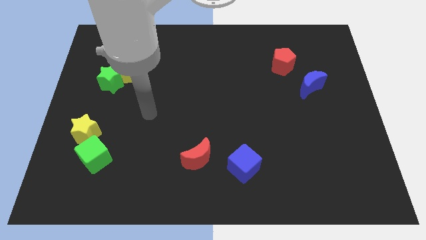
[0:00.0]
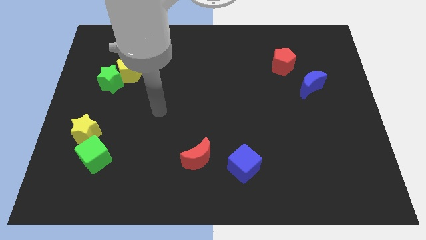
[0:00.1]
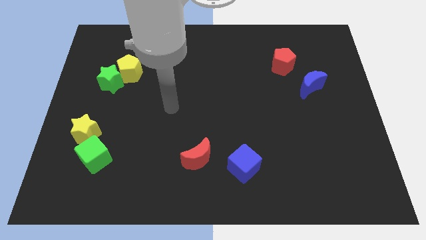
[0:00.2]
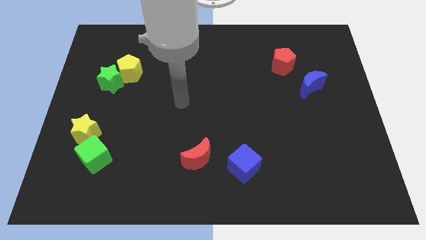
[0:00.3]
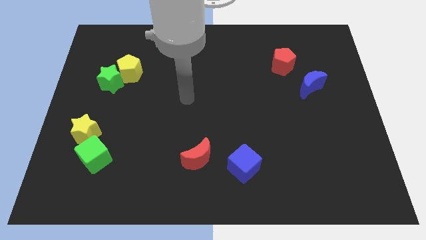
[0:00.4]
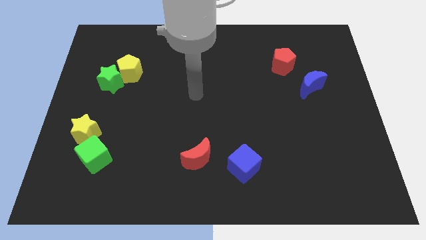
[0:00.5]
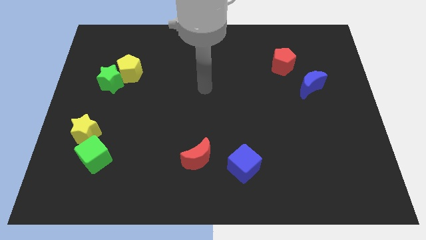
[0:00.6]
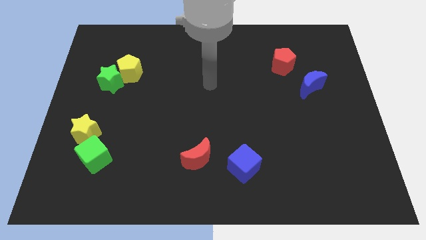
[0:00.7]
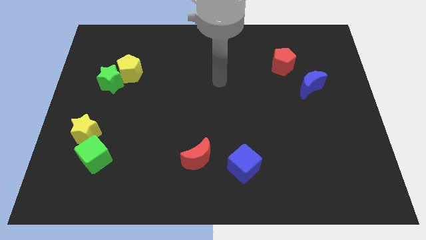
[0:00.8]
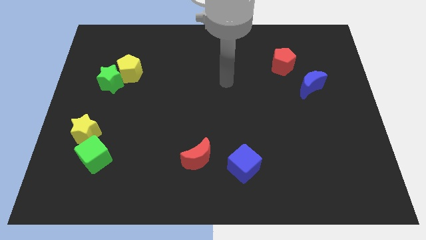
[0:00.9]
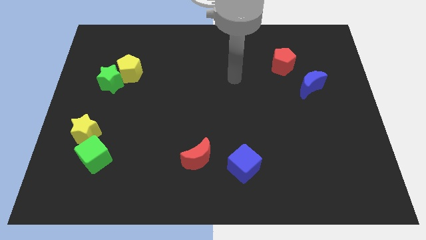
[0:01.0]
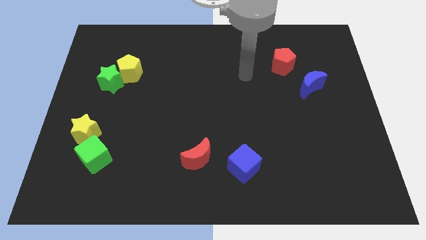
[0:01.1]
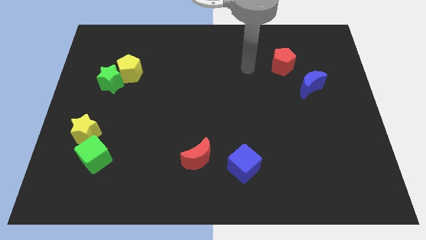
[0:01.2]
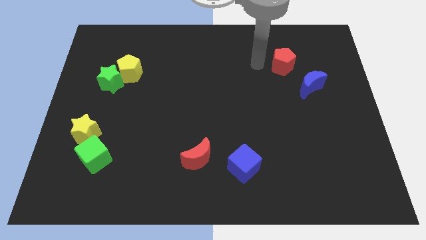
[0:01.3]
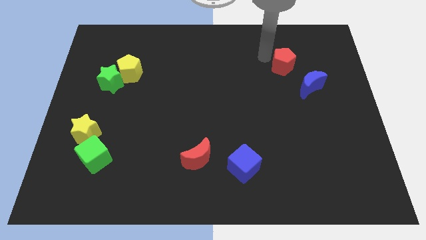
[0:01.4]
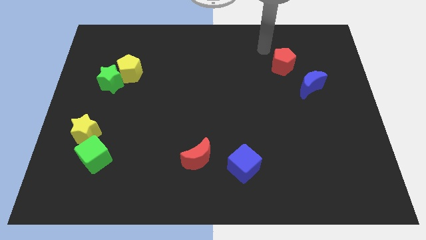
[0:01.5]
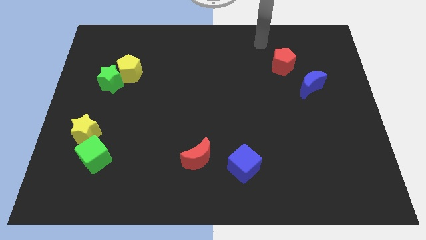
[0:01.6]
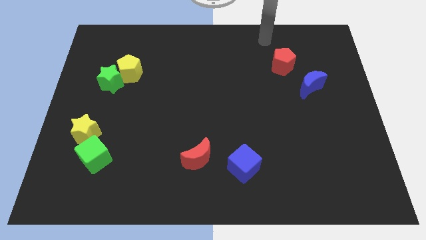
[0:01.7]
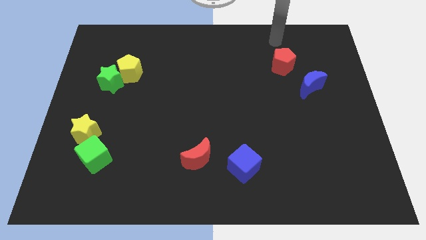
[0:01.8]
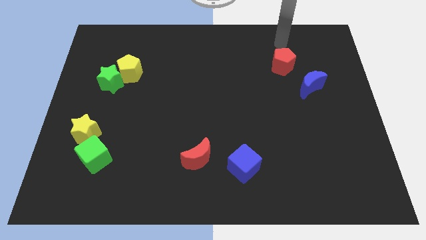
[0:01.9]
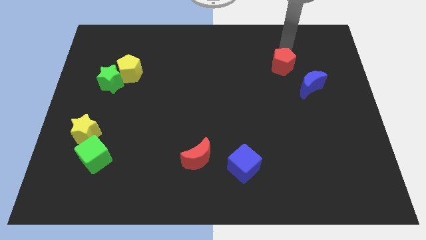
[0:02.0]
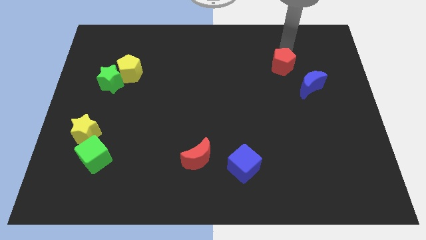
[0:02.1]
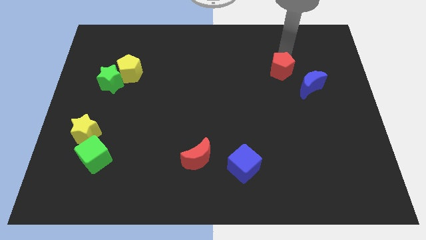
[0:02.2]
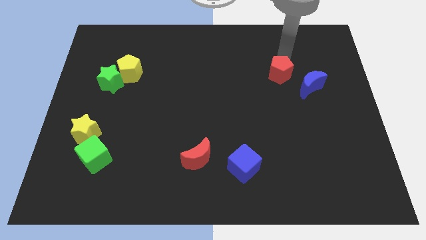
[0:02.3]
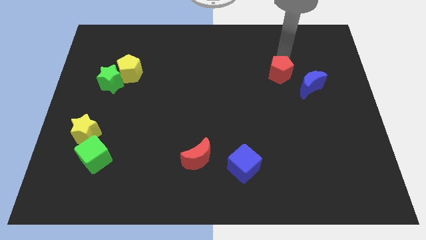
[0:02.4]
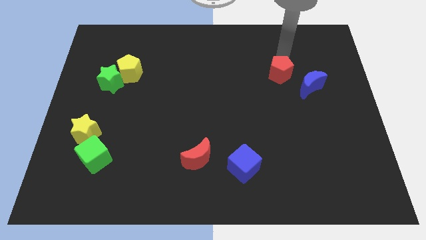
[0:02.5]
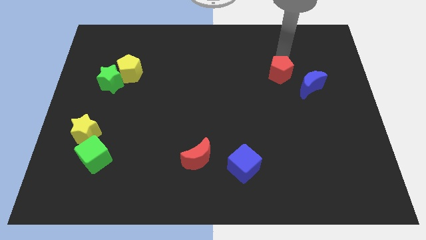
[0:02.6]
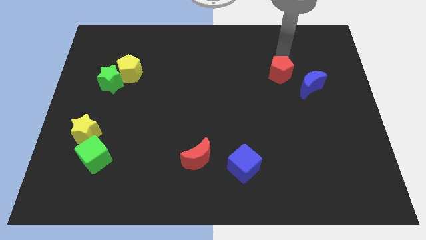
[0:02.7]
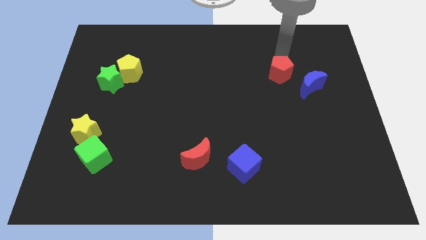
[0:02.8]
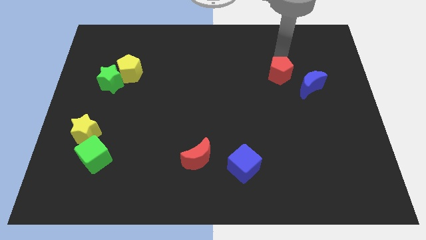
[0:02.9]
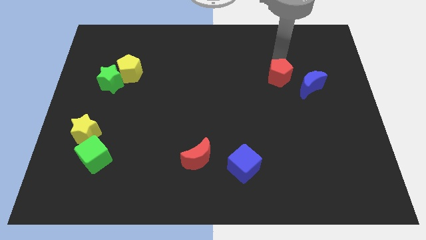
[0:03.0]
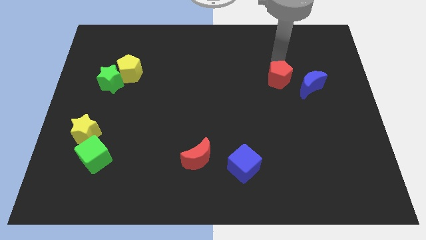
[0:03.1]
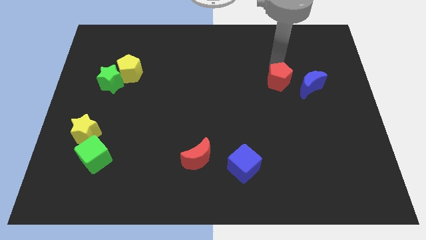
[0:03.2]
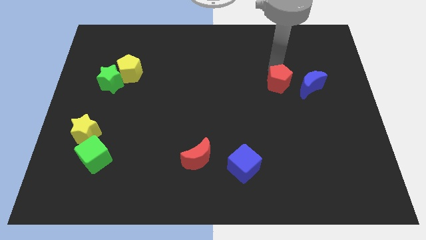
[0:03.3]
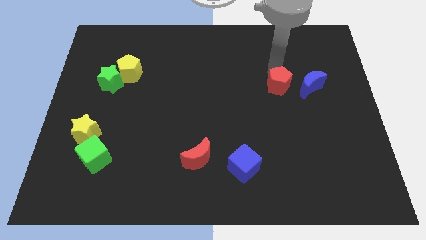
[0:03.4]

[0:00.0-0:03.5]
push the red pentagon down slightly

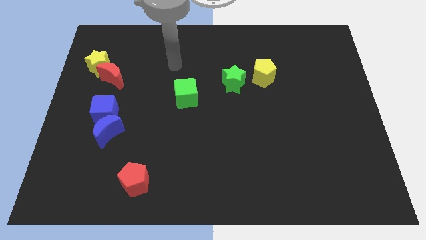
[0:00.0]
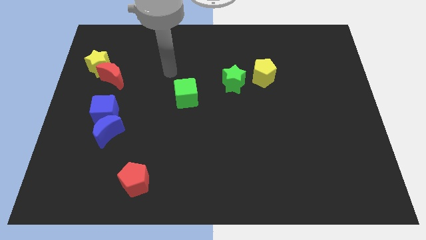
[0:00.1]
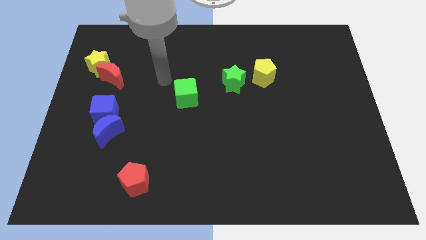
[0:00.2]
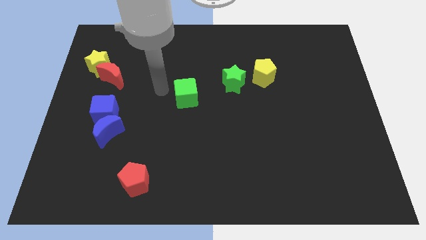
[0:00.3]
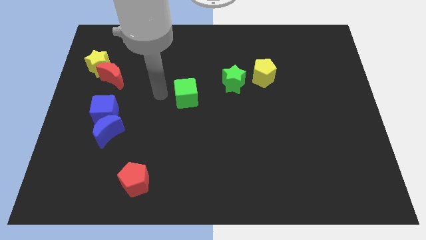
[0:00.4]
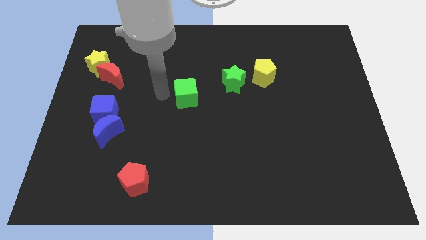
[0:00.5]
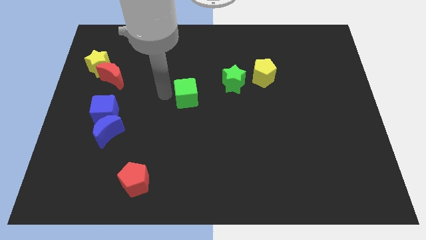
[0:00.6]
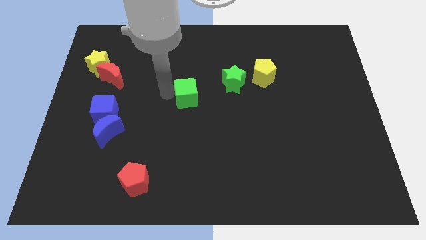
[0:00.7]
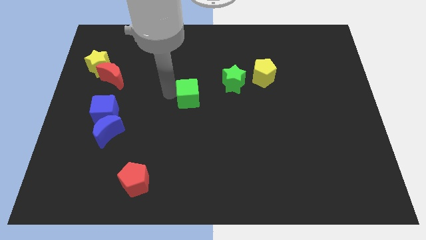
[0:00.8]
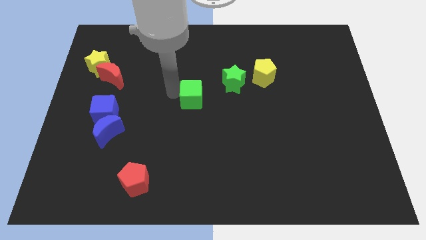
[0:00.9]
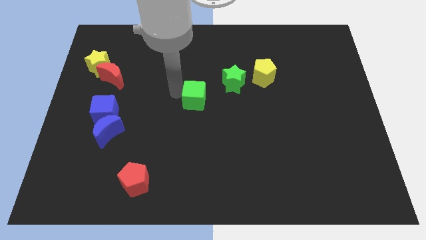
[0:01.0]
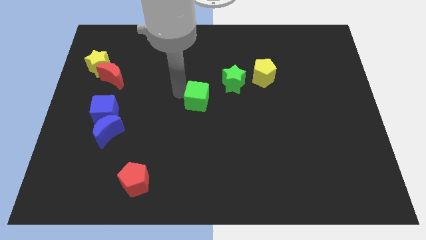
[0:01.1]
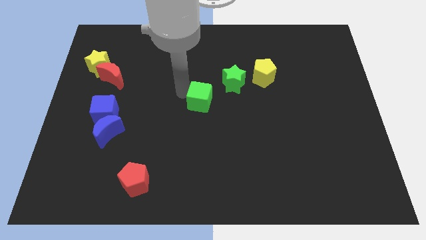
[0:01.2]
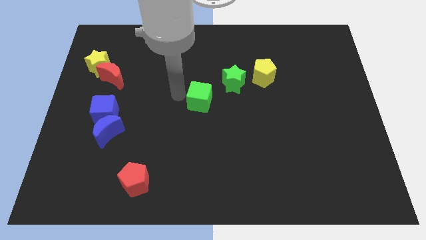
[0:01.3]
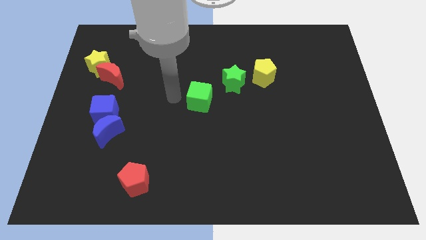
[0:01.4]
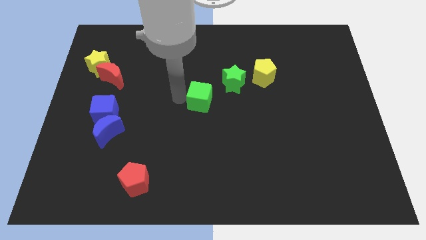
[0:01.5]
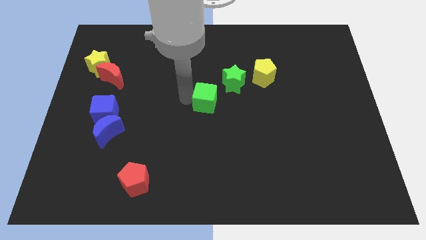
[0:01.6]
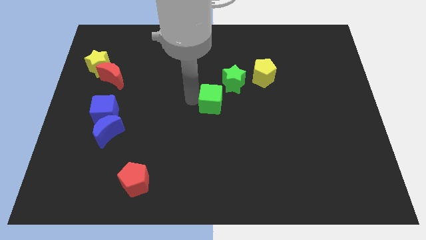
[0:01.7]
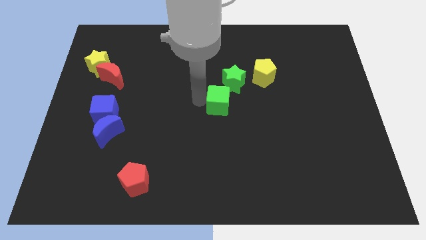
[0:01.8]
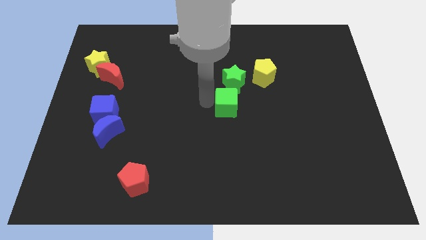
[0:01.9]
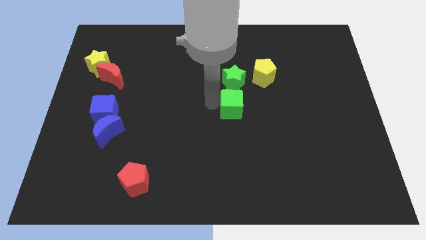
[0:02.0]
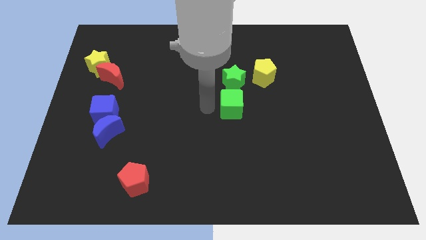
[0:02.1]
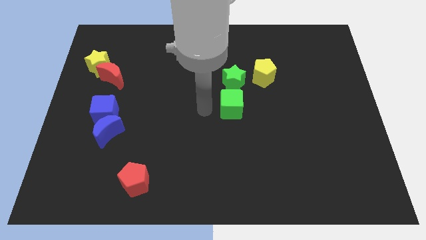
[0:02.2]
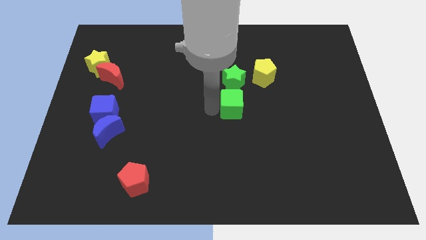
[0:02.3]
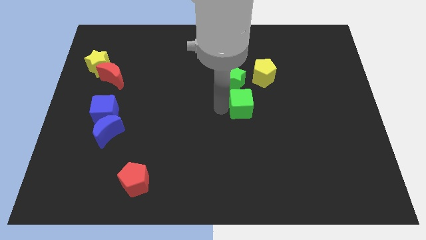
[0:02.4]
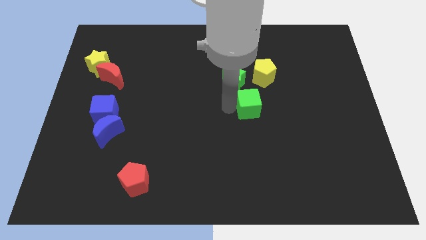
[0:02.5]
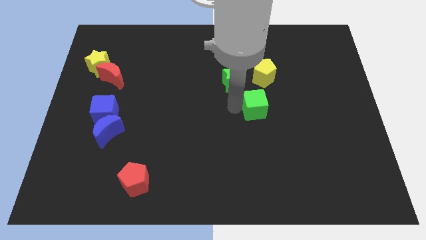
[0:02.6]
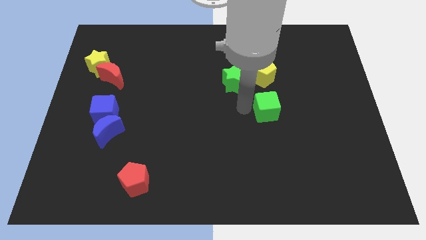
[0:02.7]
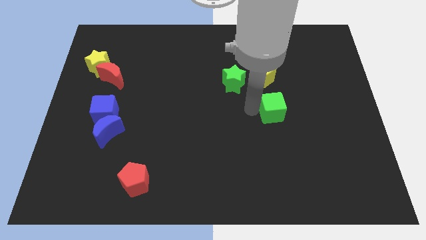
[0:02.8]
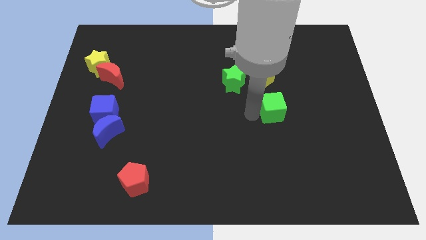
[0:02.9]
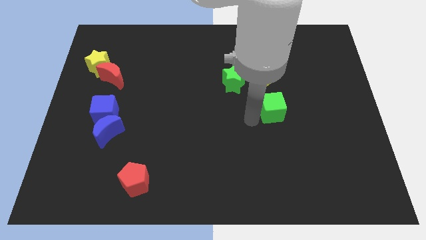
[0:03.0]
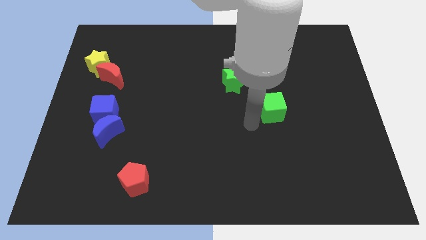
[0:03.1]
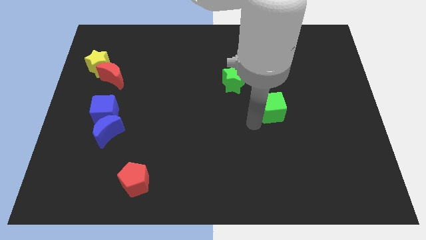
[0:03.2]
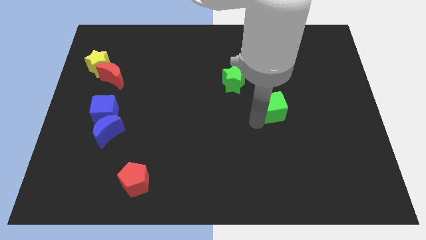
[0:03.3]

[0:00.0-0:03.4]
slide the green cube right

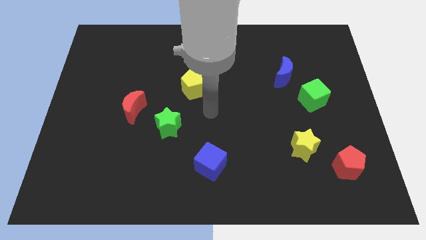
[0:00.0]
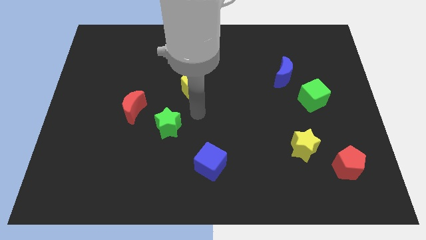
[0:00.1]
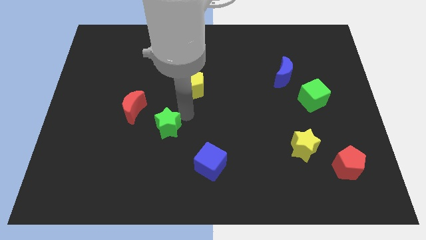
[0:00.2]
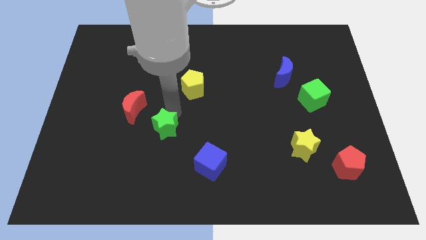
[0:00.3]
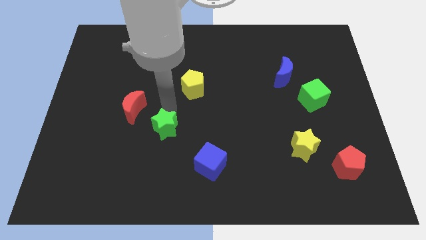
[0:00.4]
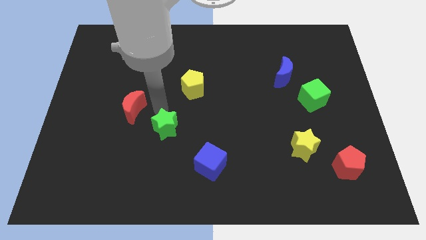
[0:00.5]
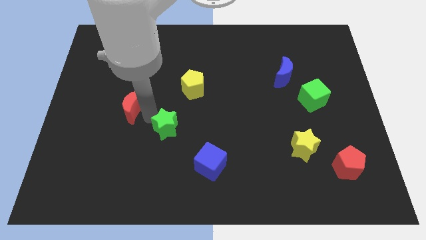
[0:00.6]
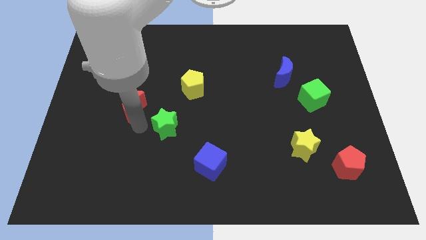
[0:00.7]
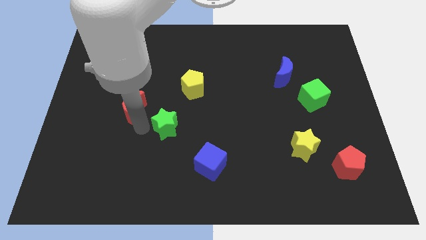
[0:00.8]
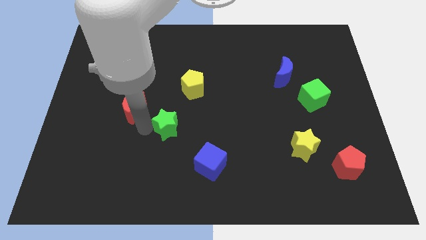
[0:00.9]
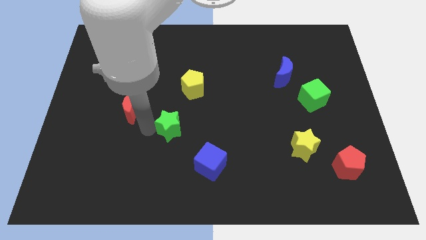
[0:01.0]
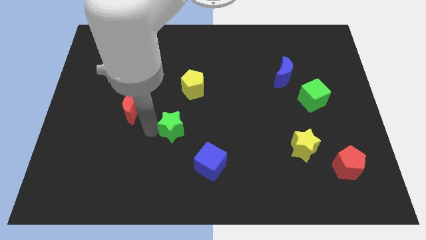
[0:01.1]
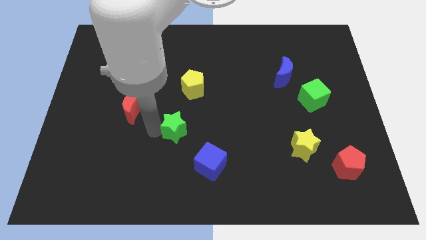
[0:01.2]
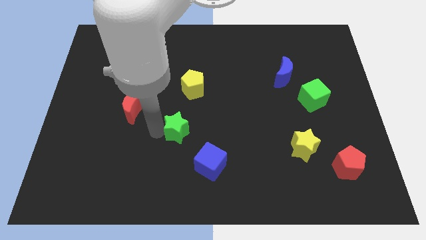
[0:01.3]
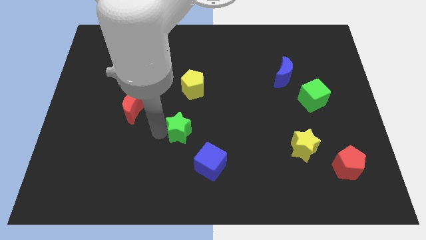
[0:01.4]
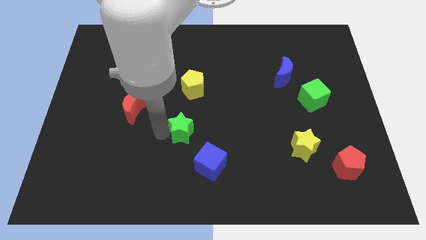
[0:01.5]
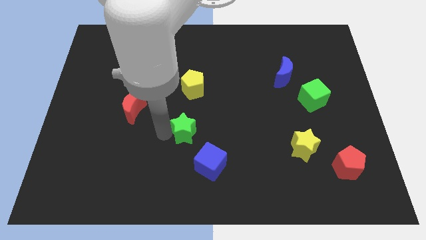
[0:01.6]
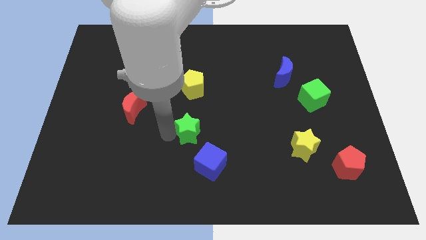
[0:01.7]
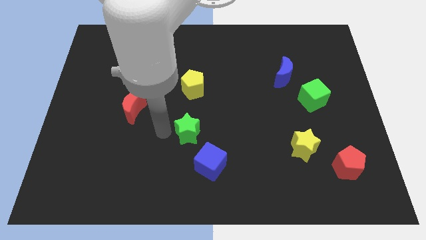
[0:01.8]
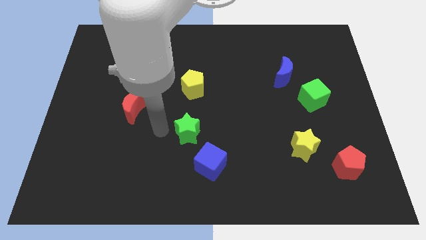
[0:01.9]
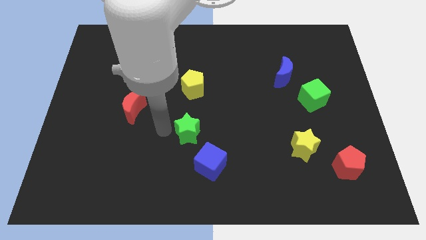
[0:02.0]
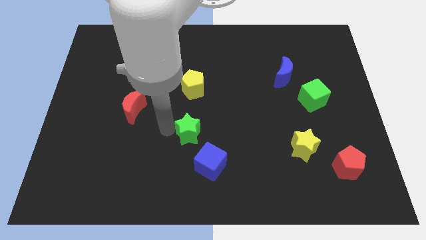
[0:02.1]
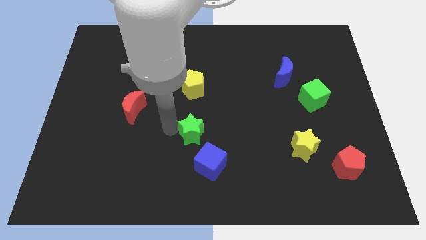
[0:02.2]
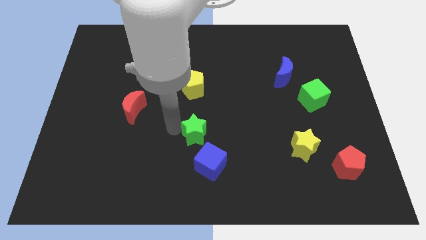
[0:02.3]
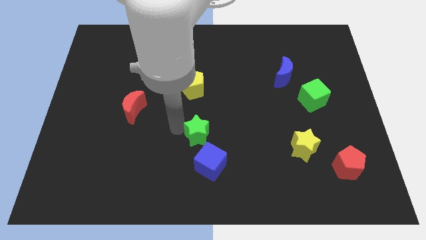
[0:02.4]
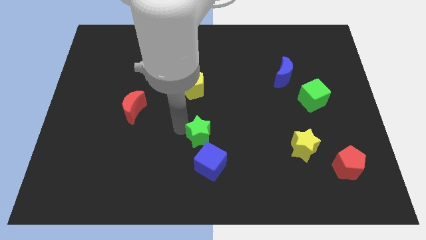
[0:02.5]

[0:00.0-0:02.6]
slide the green star to the right slightly
